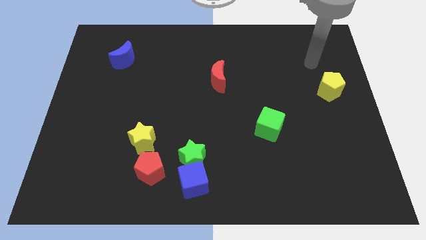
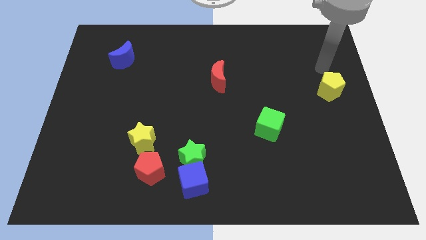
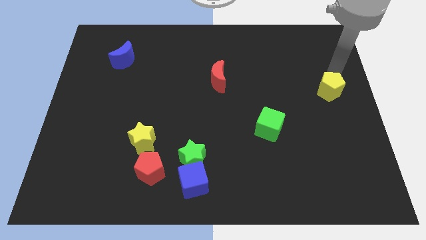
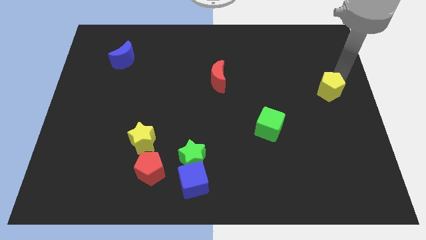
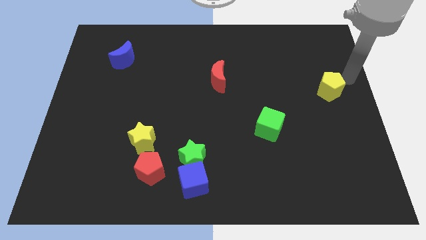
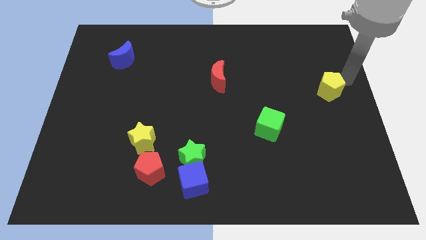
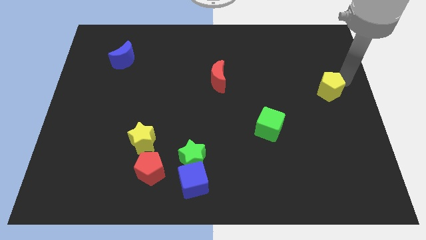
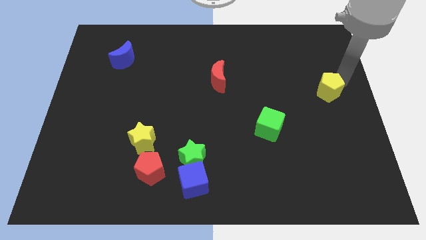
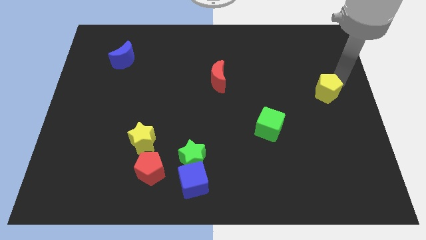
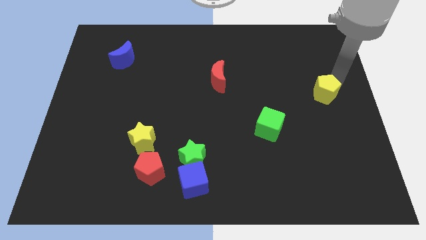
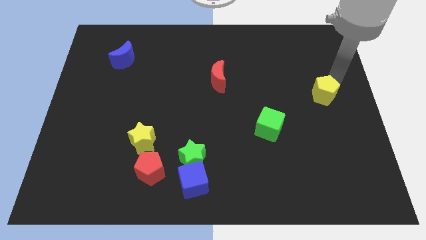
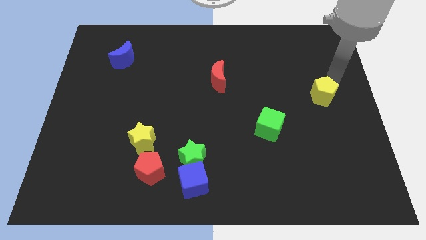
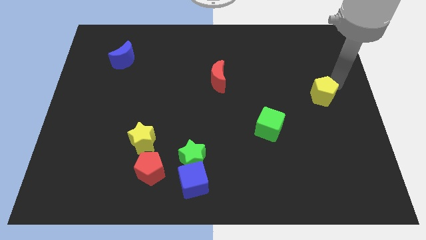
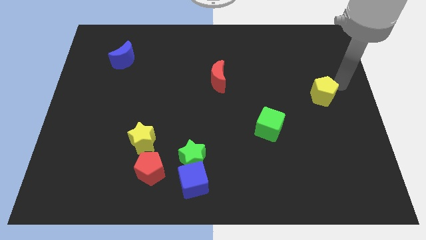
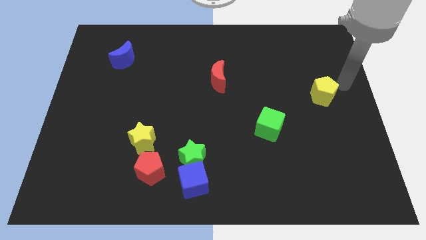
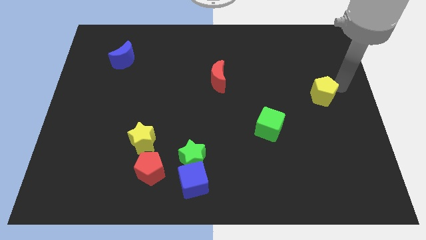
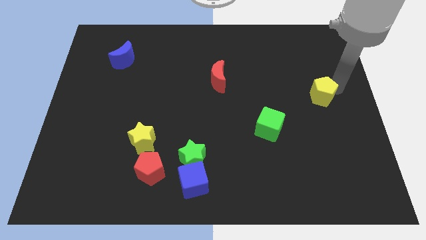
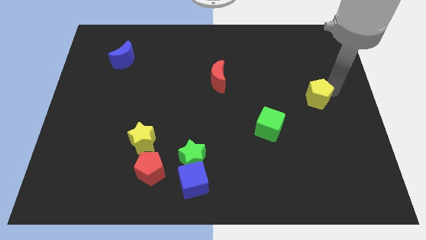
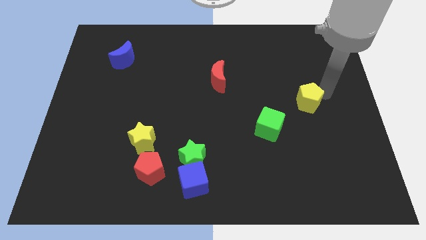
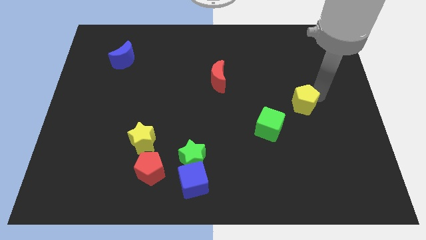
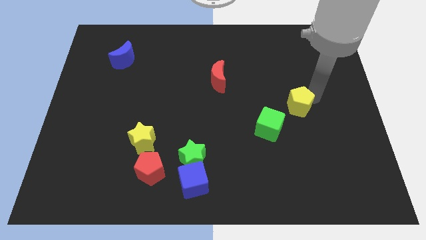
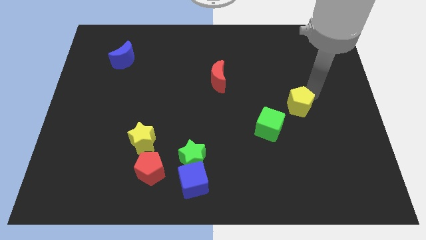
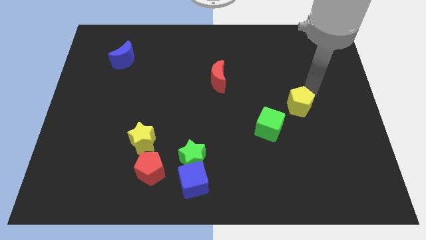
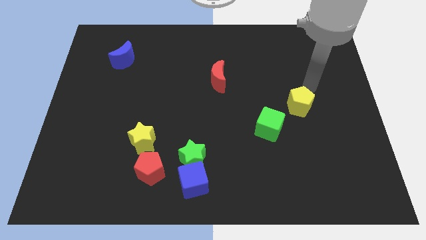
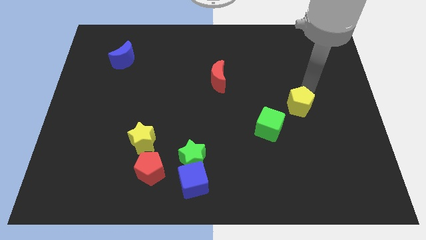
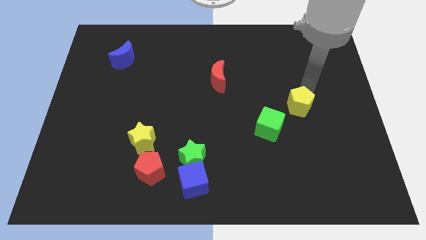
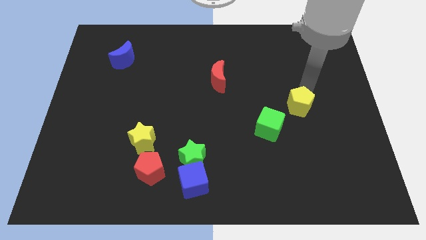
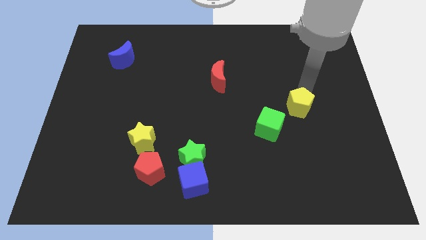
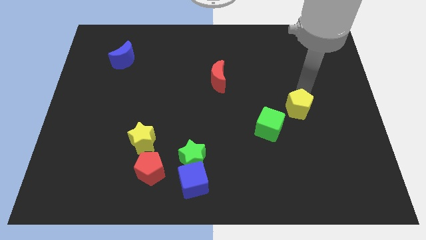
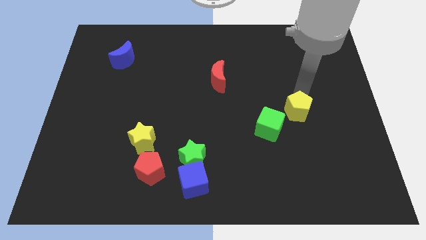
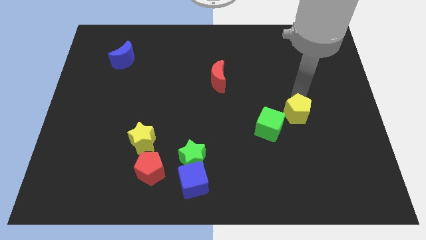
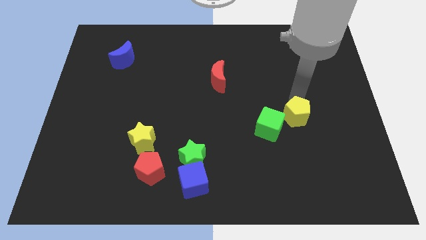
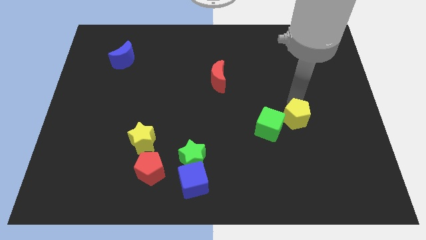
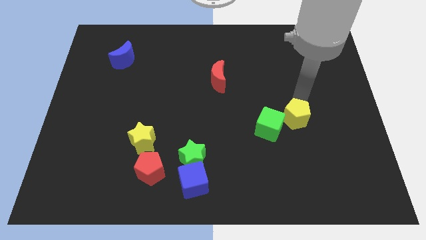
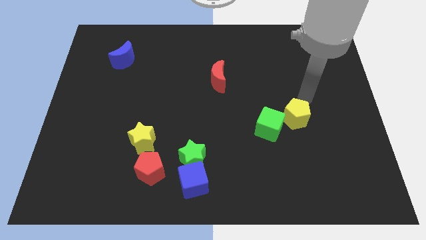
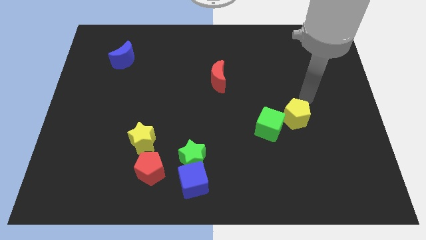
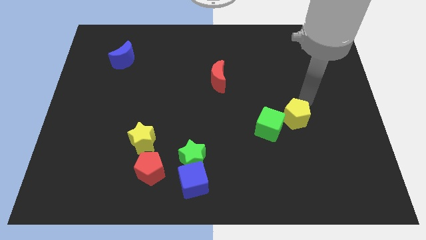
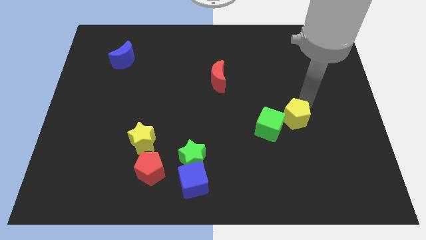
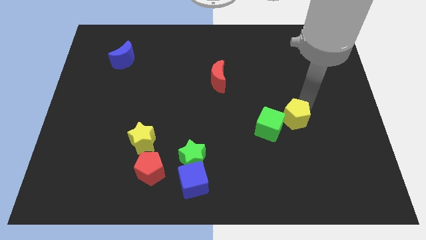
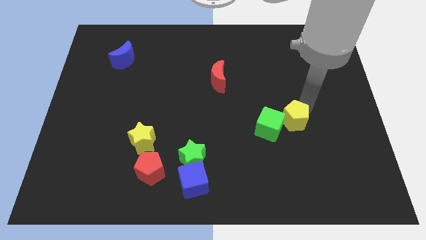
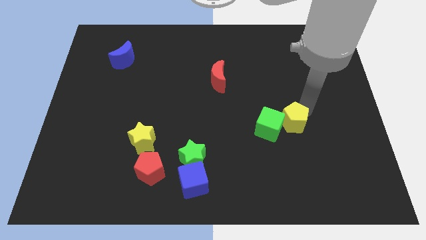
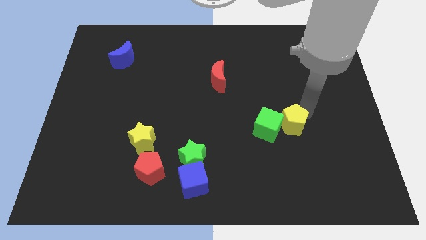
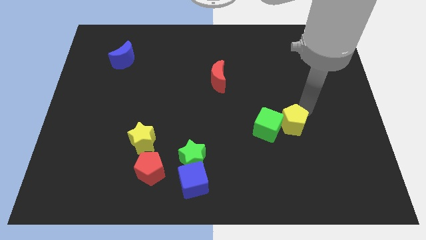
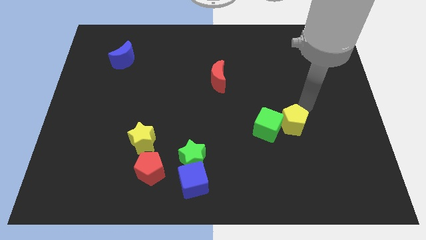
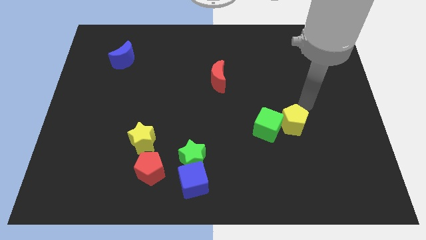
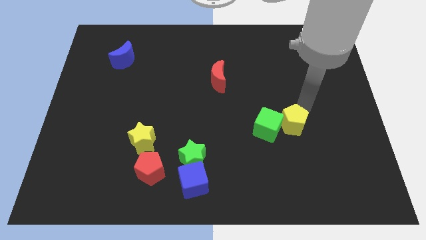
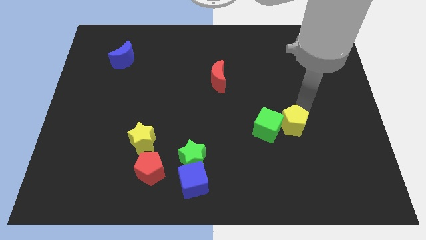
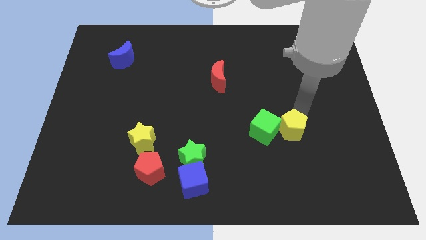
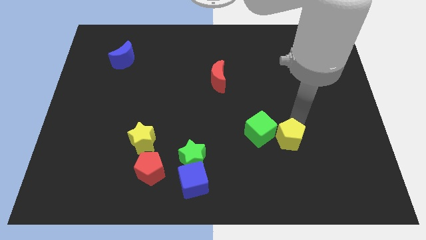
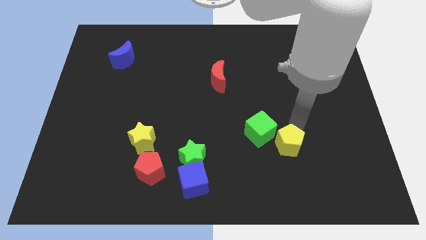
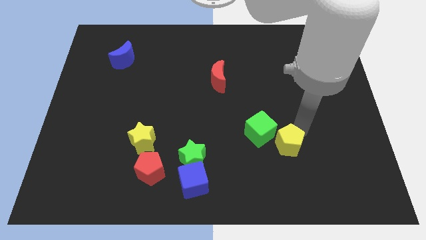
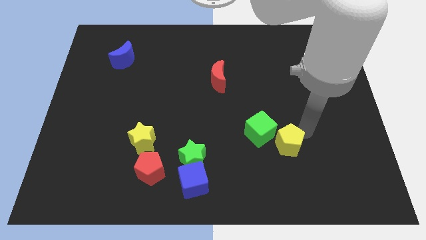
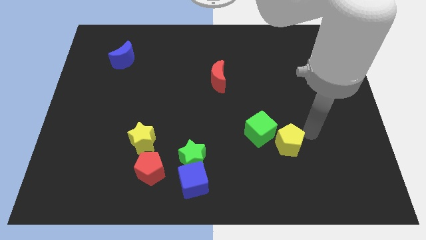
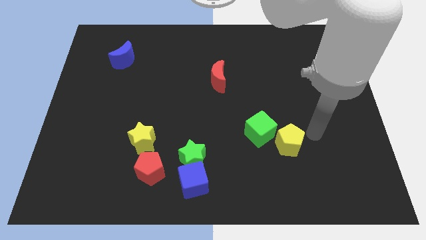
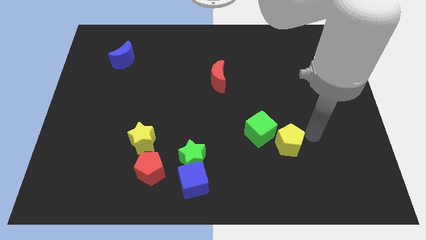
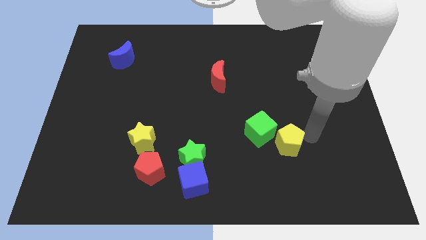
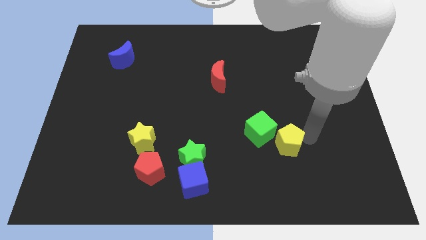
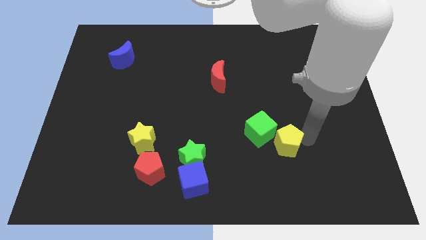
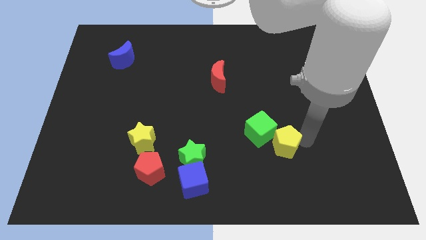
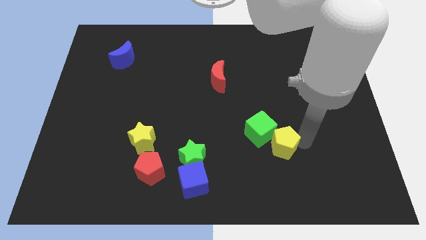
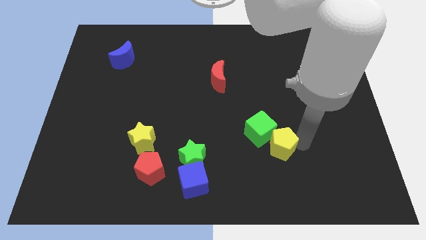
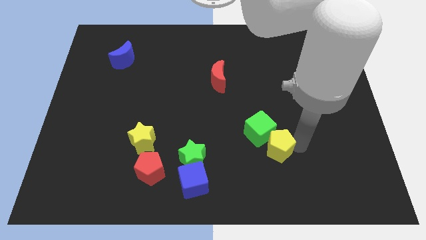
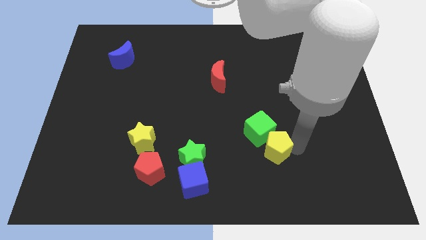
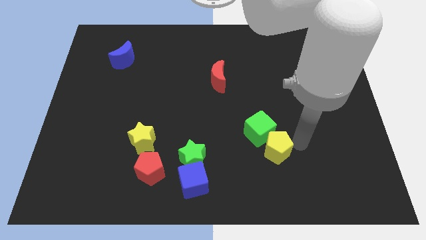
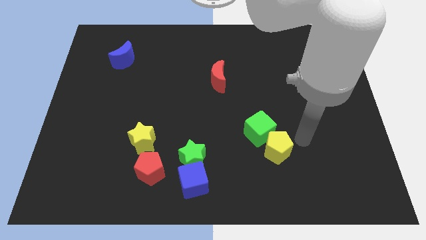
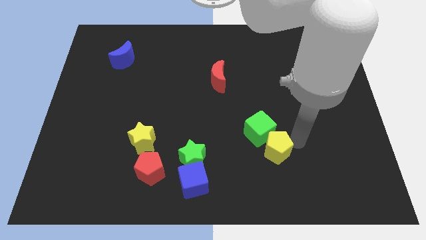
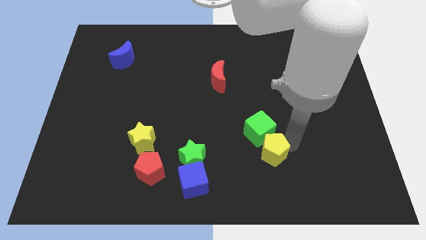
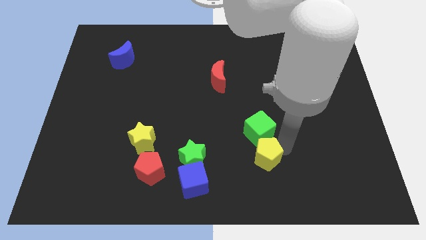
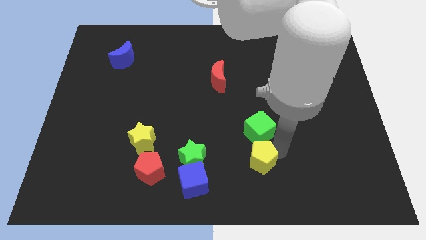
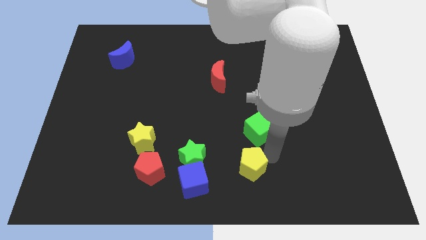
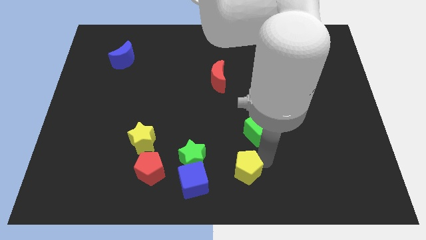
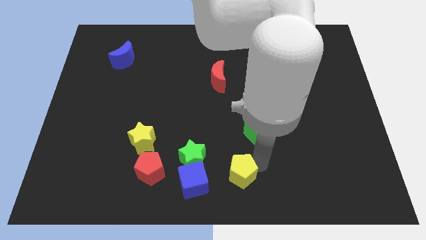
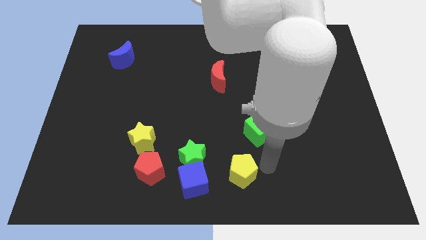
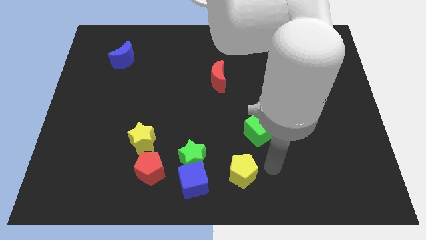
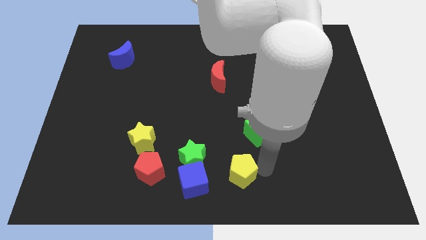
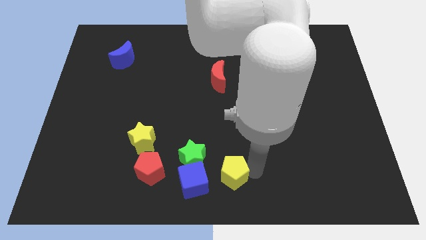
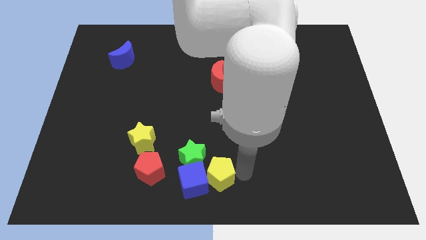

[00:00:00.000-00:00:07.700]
put the yellow pentagon close to the blue cube
